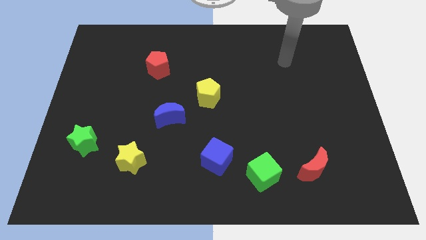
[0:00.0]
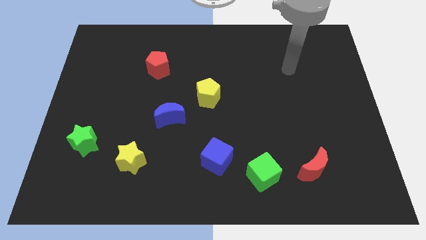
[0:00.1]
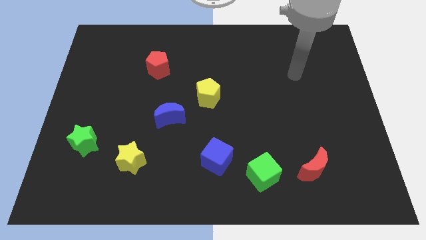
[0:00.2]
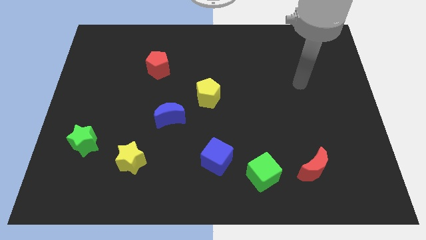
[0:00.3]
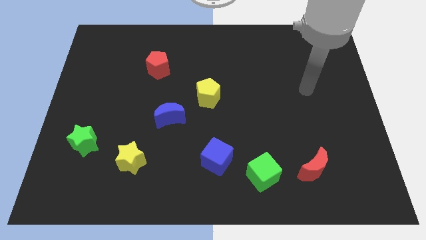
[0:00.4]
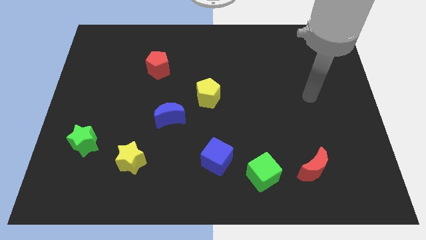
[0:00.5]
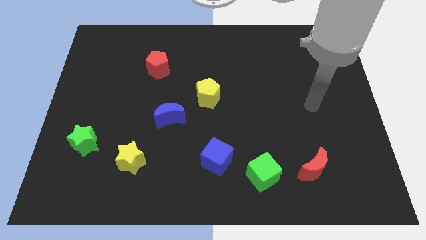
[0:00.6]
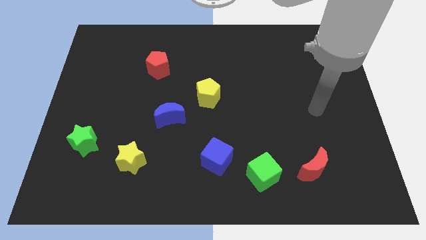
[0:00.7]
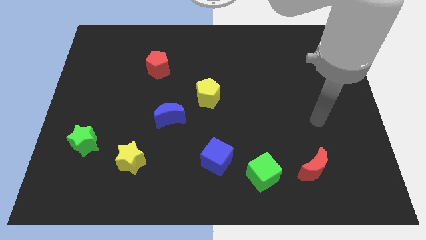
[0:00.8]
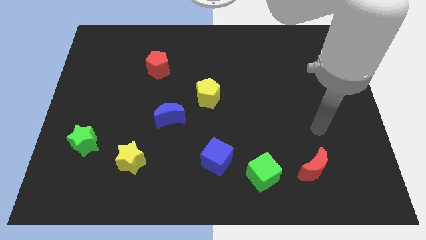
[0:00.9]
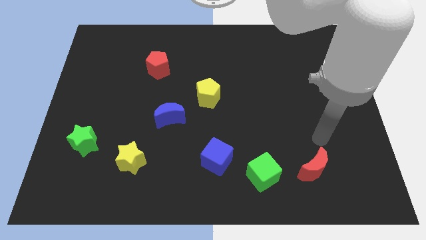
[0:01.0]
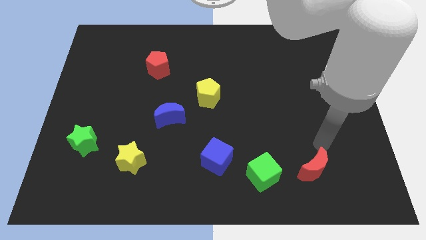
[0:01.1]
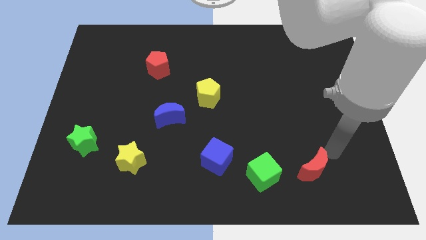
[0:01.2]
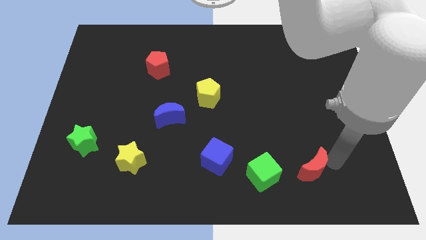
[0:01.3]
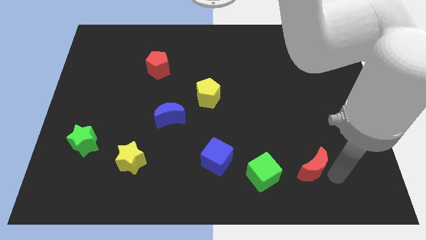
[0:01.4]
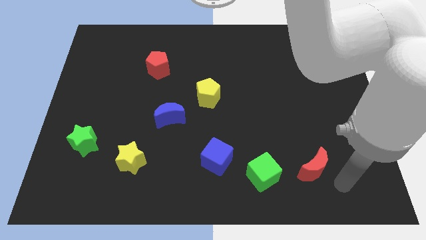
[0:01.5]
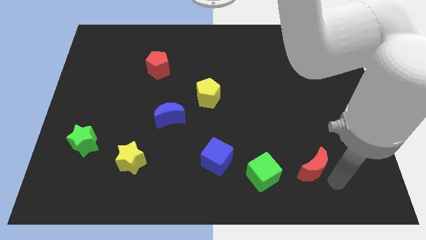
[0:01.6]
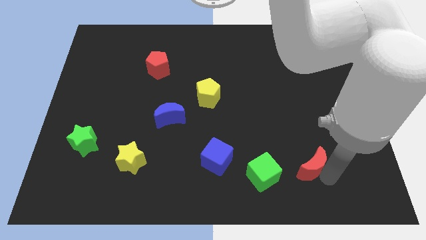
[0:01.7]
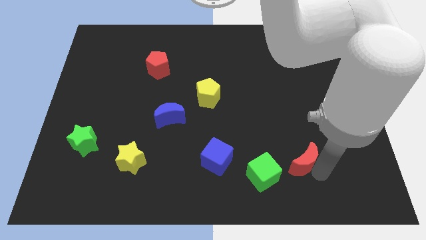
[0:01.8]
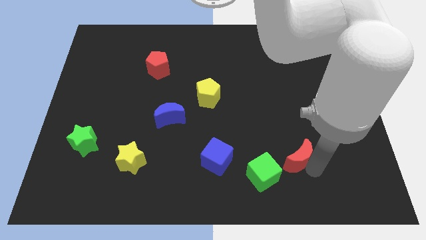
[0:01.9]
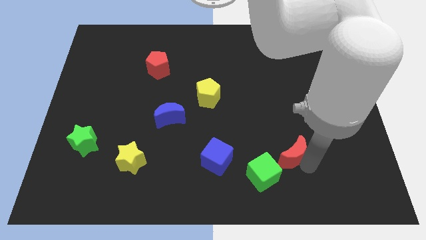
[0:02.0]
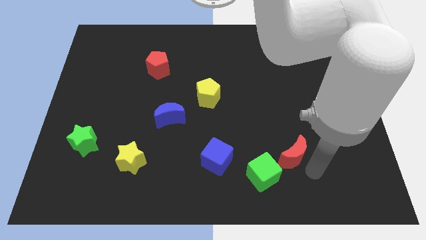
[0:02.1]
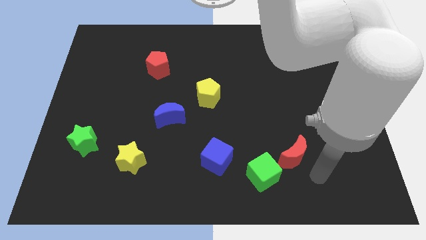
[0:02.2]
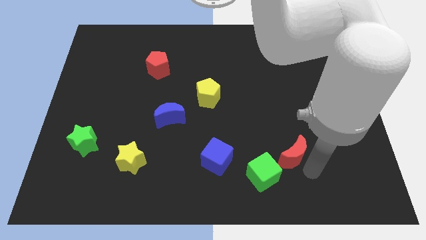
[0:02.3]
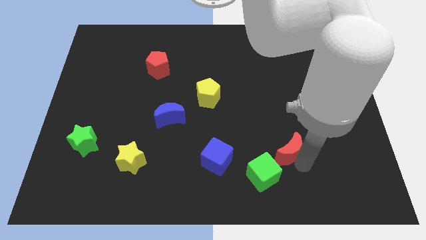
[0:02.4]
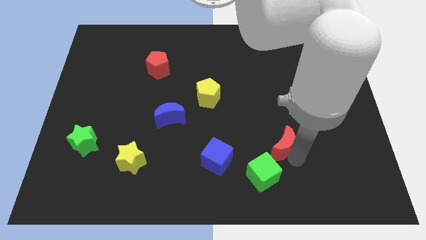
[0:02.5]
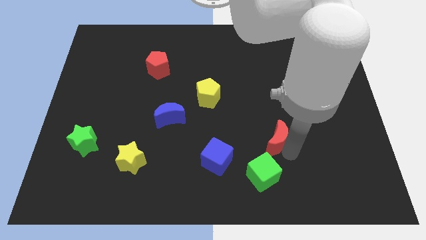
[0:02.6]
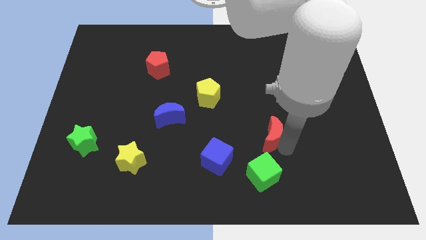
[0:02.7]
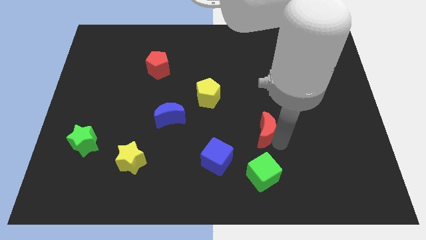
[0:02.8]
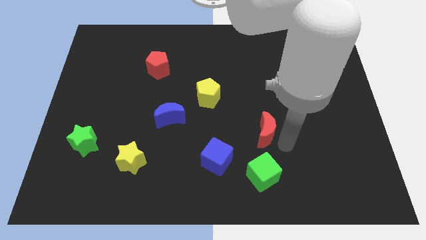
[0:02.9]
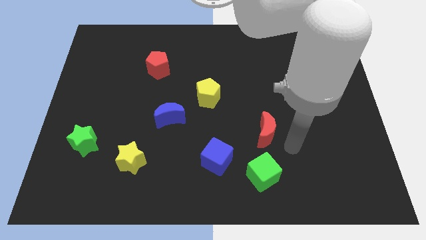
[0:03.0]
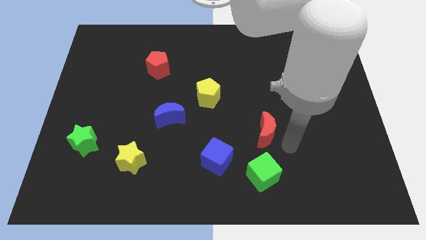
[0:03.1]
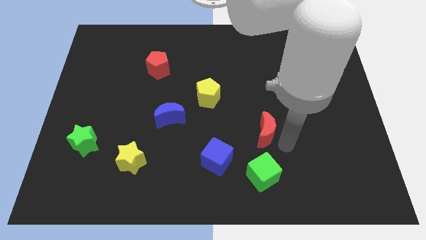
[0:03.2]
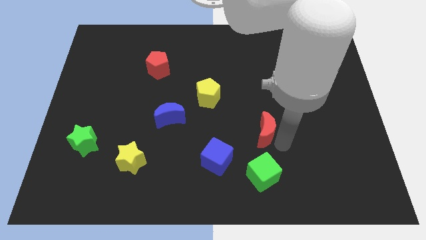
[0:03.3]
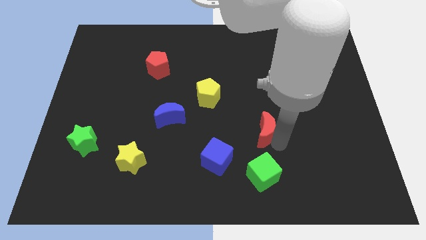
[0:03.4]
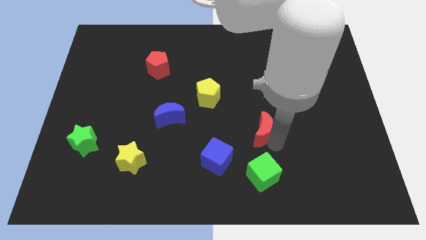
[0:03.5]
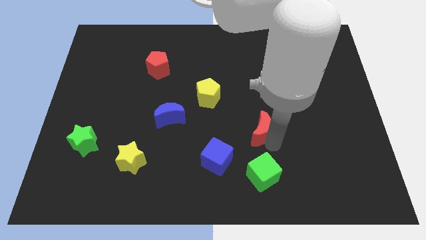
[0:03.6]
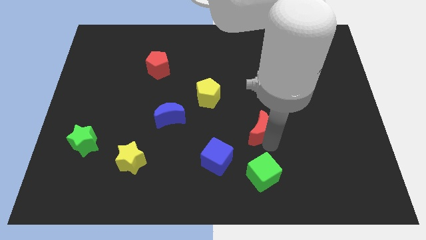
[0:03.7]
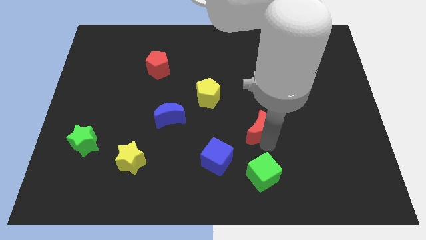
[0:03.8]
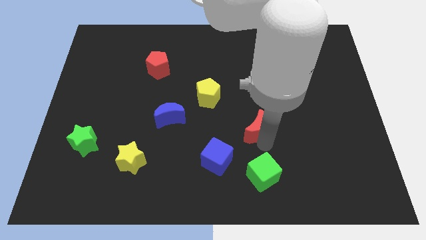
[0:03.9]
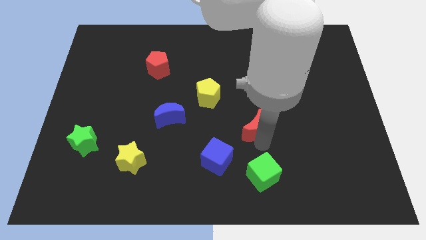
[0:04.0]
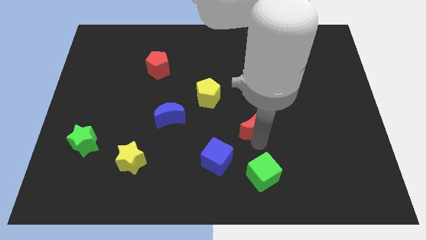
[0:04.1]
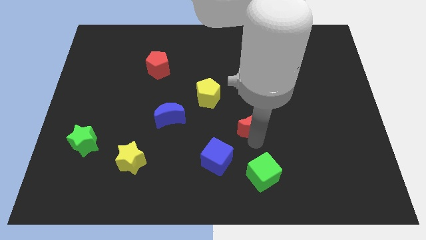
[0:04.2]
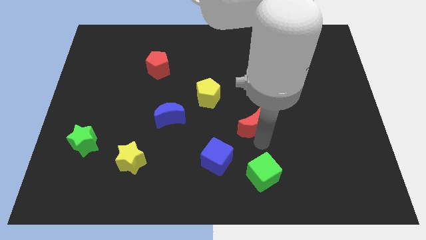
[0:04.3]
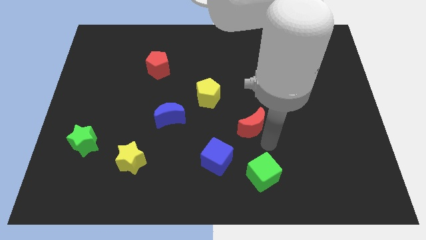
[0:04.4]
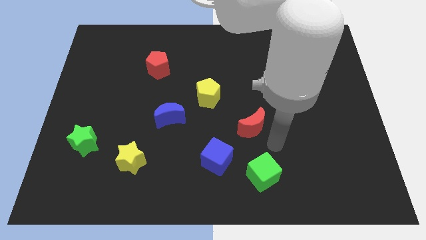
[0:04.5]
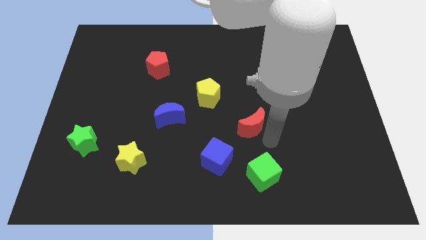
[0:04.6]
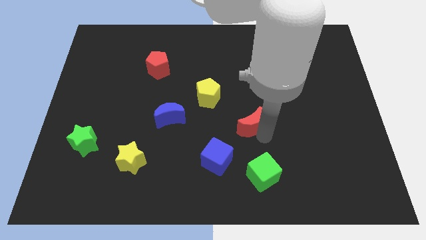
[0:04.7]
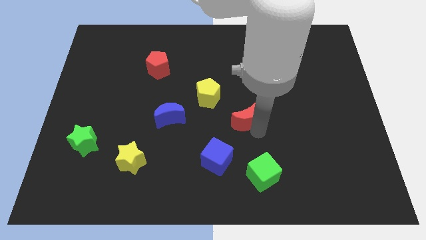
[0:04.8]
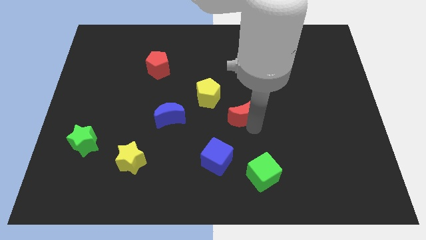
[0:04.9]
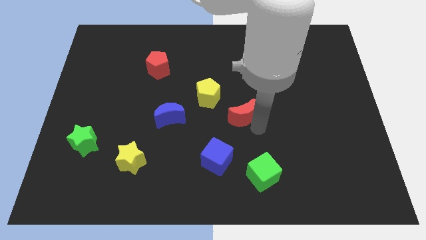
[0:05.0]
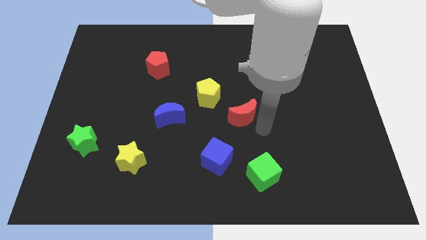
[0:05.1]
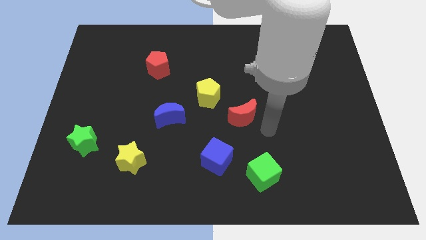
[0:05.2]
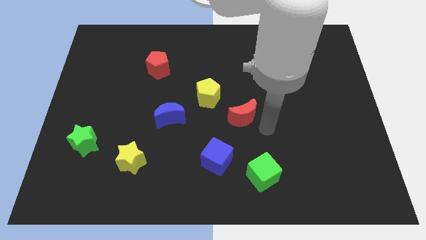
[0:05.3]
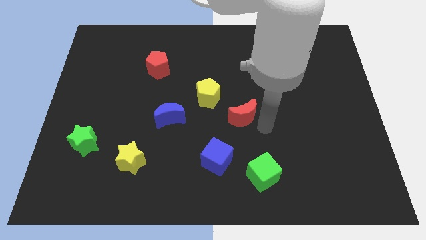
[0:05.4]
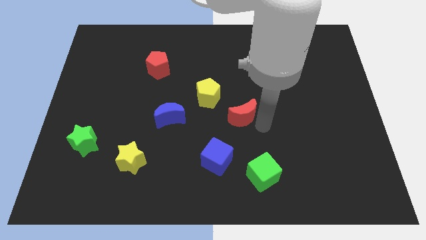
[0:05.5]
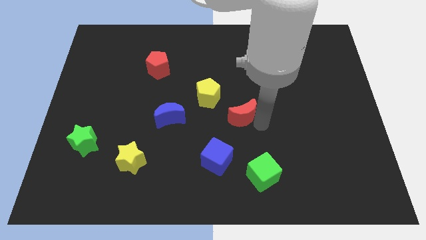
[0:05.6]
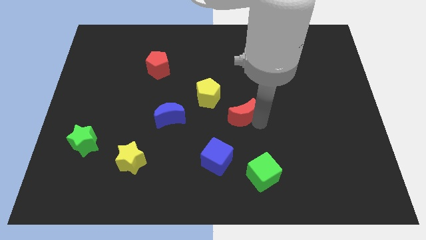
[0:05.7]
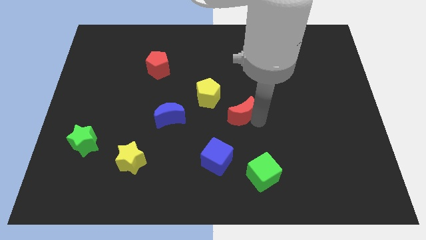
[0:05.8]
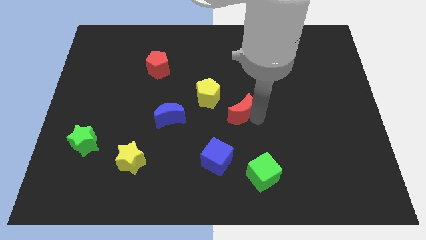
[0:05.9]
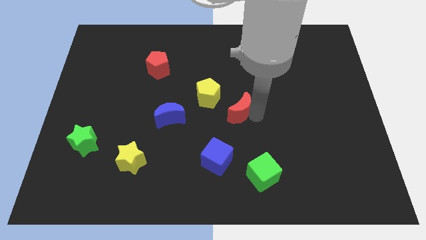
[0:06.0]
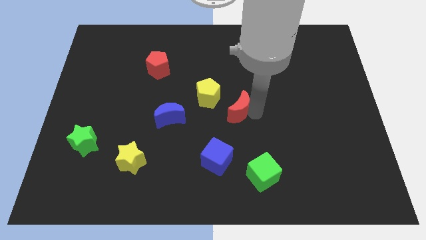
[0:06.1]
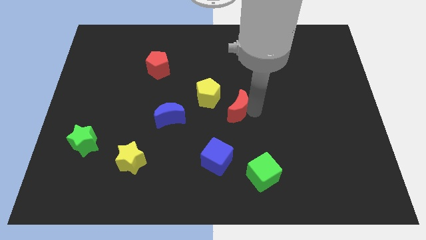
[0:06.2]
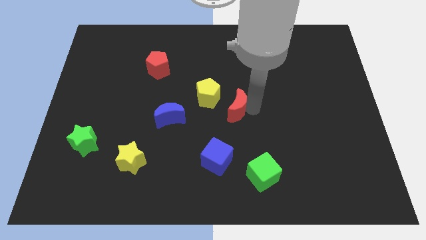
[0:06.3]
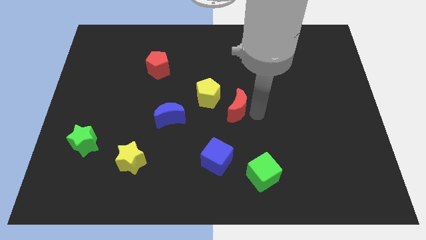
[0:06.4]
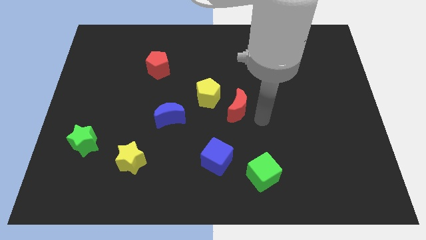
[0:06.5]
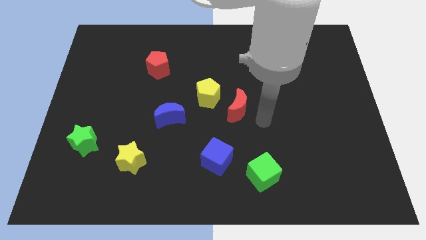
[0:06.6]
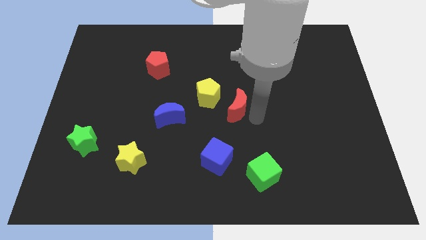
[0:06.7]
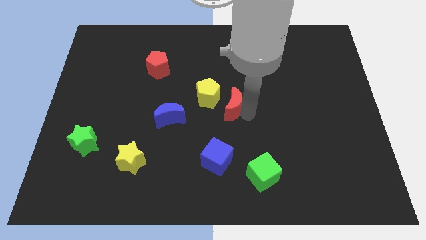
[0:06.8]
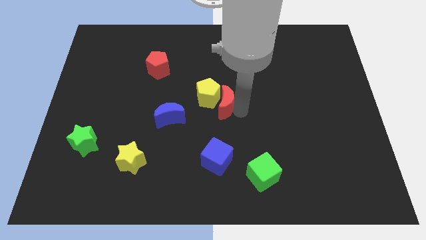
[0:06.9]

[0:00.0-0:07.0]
move the red moon close to the yellow pentagon
